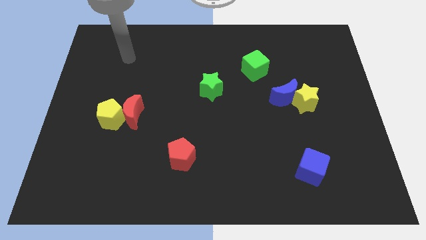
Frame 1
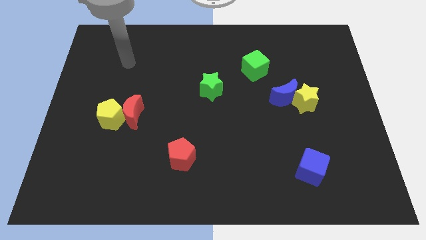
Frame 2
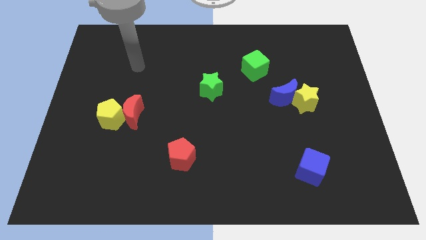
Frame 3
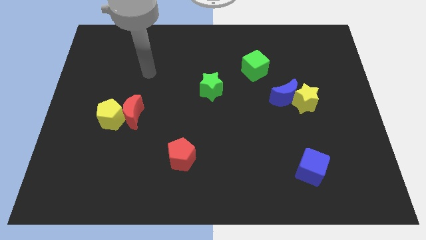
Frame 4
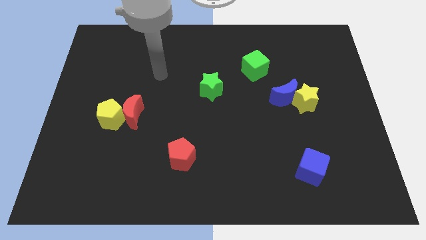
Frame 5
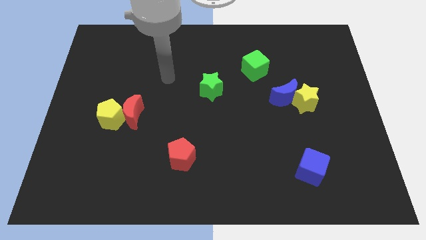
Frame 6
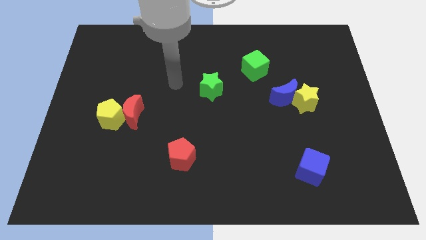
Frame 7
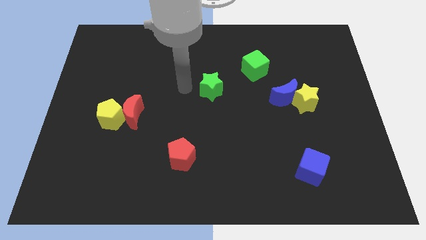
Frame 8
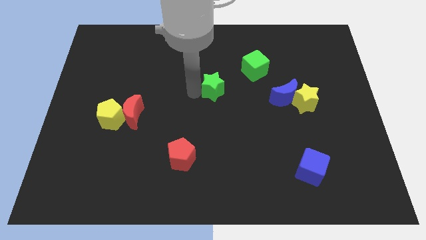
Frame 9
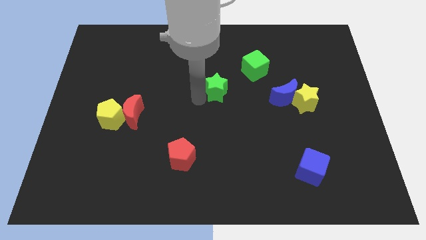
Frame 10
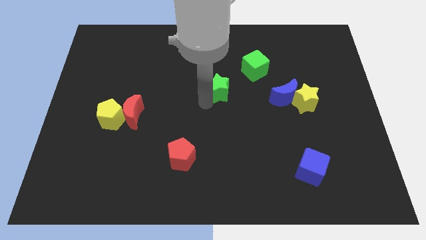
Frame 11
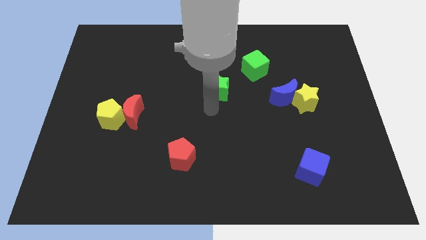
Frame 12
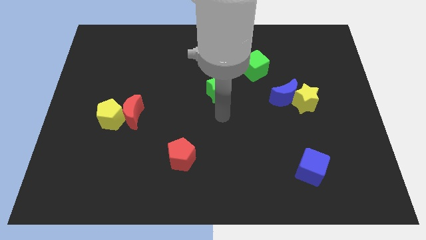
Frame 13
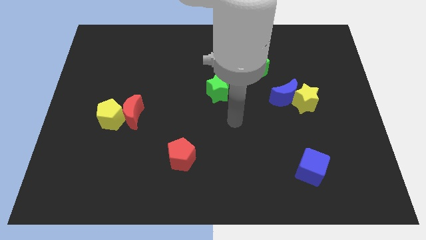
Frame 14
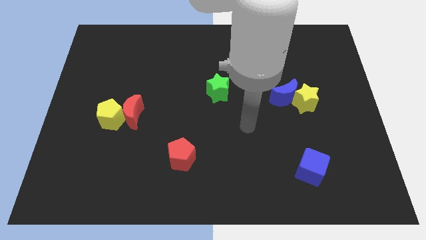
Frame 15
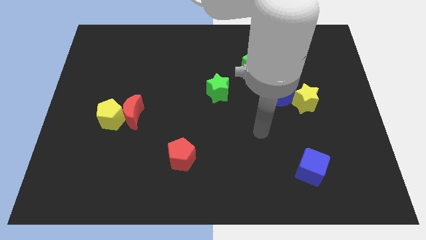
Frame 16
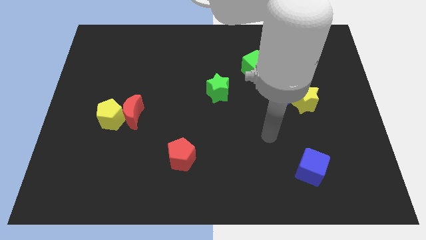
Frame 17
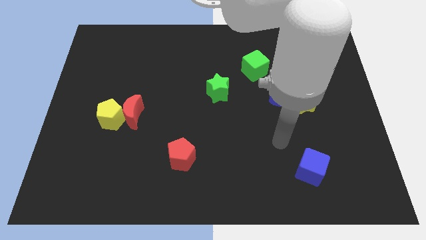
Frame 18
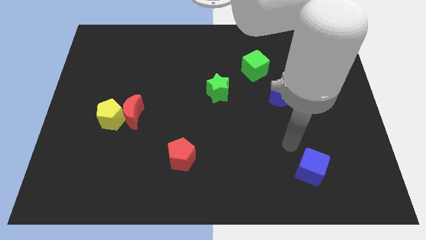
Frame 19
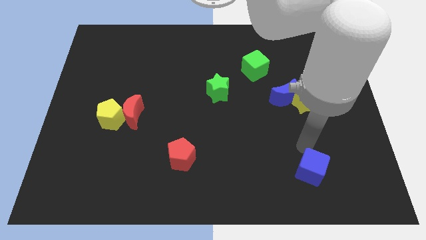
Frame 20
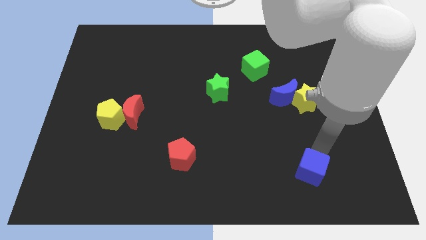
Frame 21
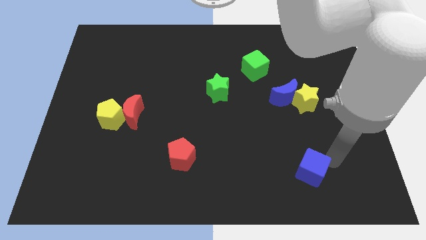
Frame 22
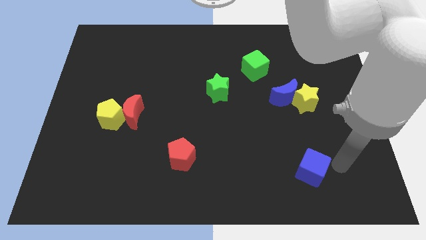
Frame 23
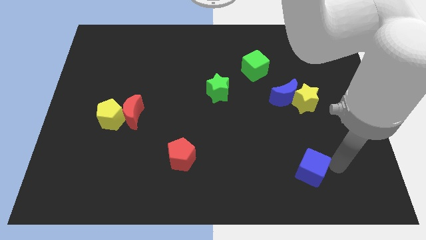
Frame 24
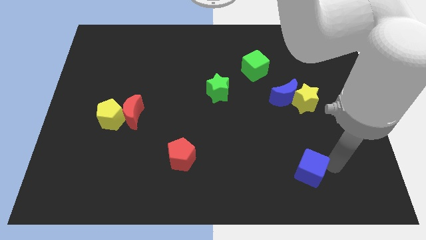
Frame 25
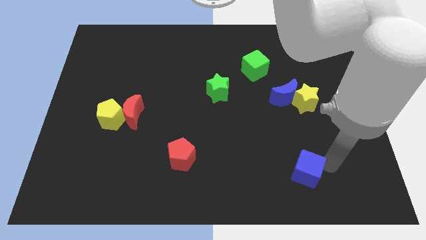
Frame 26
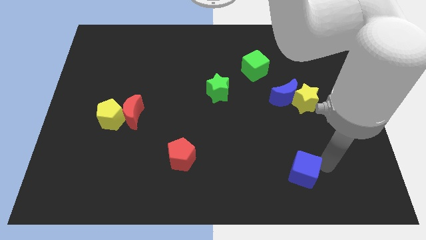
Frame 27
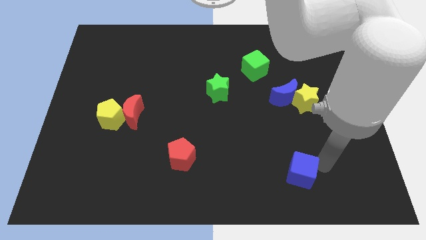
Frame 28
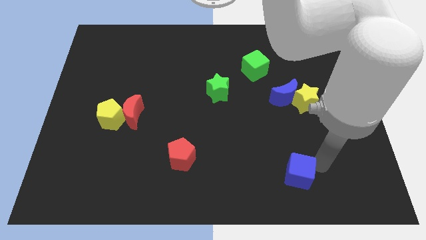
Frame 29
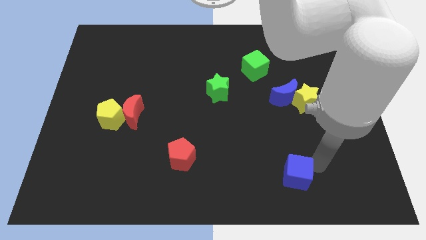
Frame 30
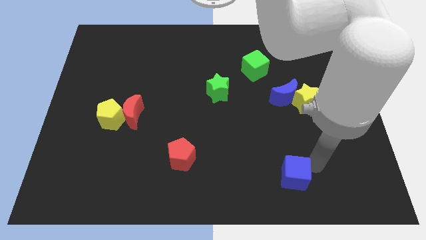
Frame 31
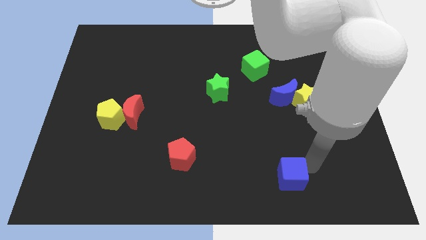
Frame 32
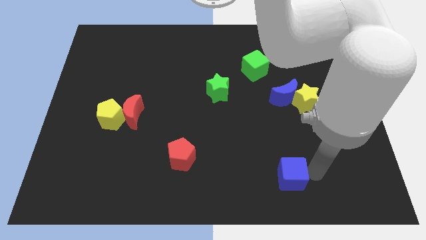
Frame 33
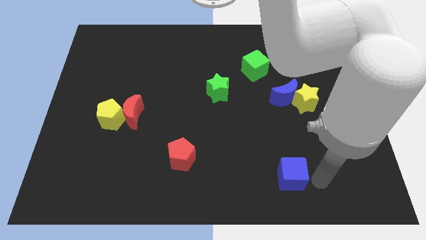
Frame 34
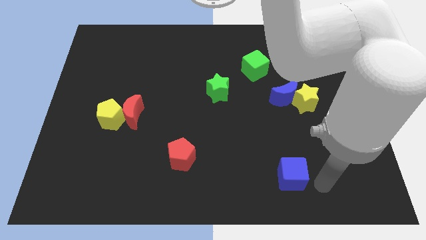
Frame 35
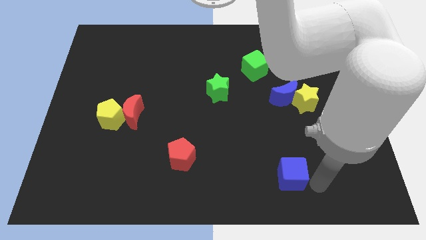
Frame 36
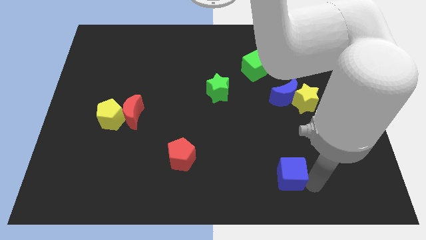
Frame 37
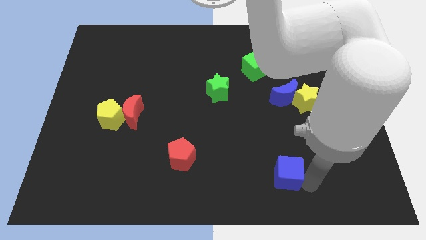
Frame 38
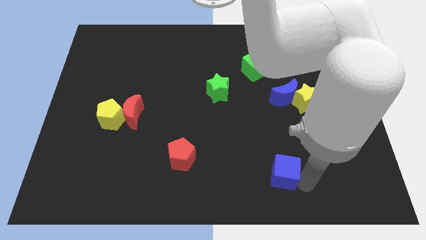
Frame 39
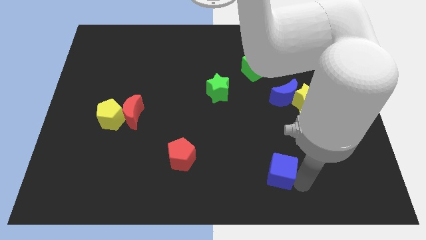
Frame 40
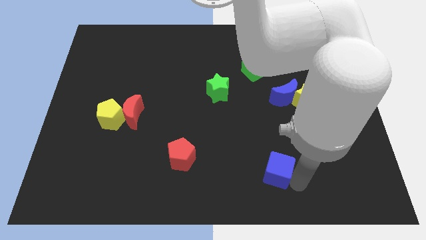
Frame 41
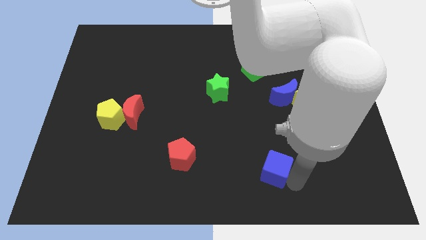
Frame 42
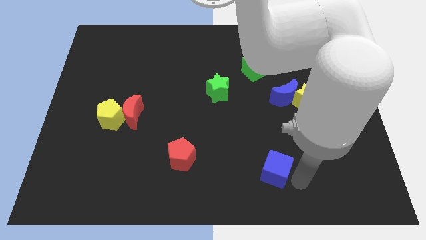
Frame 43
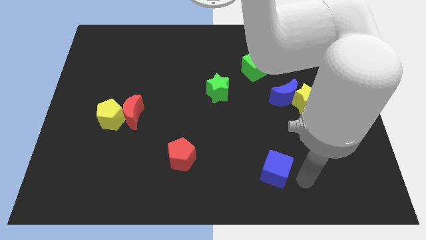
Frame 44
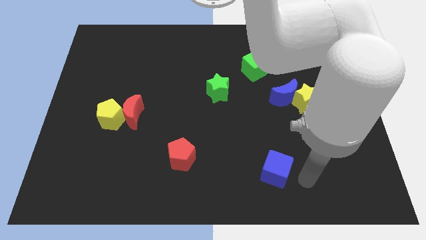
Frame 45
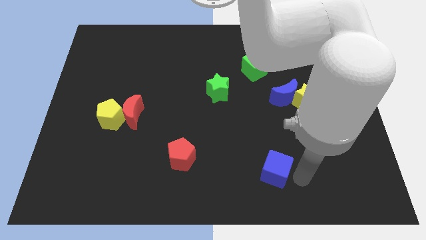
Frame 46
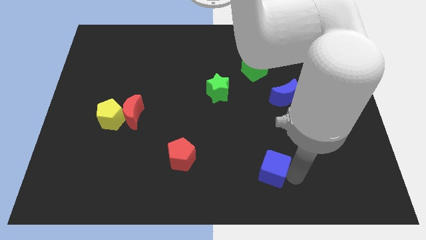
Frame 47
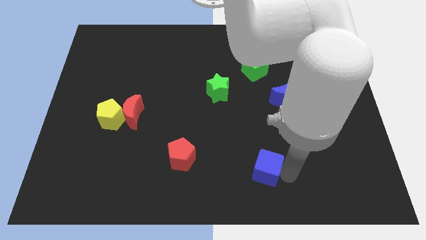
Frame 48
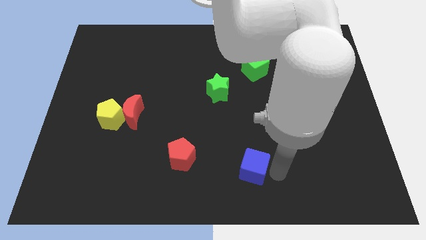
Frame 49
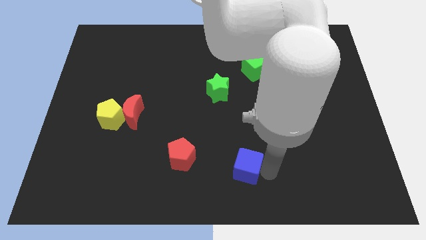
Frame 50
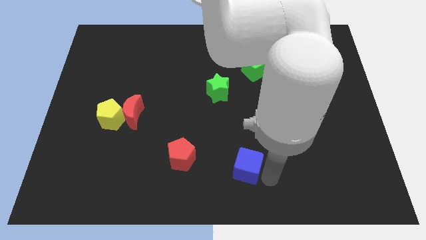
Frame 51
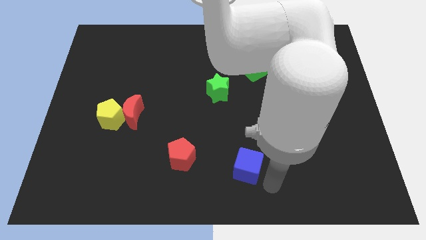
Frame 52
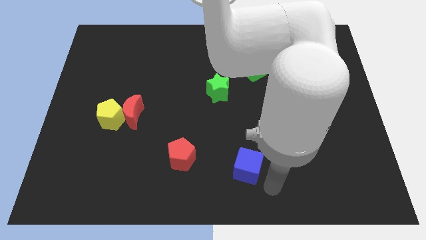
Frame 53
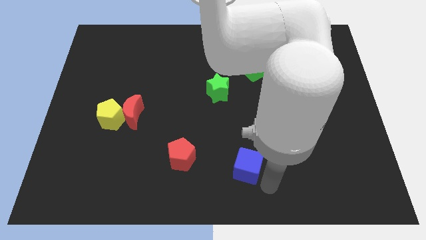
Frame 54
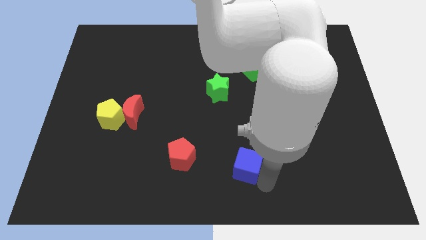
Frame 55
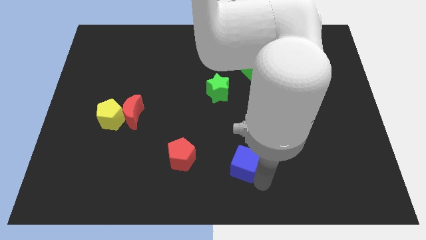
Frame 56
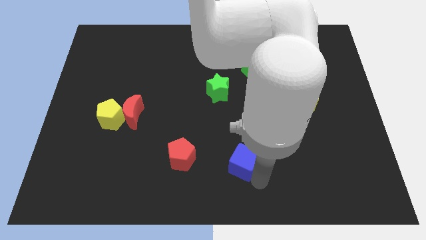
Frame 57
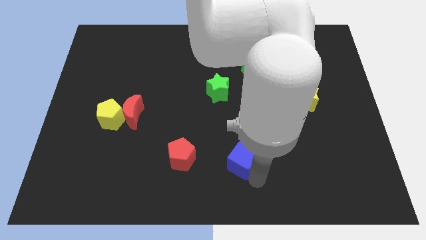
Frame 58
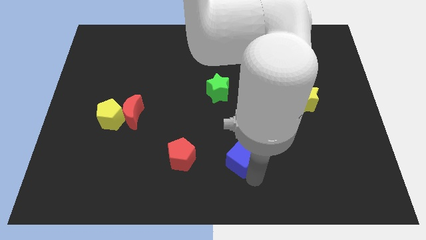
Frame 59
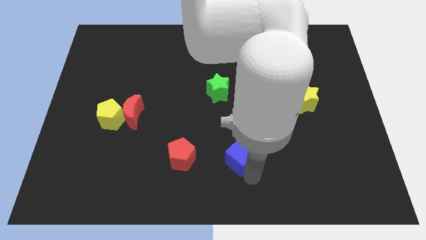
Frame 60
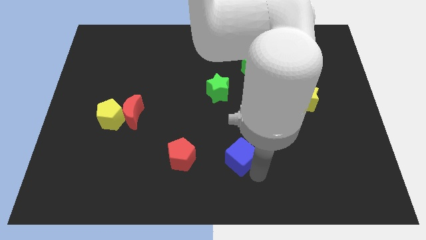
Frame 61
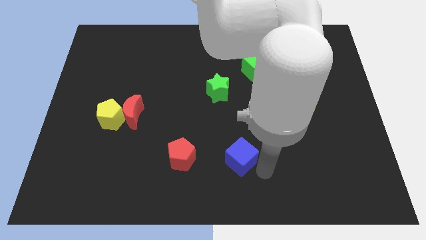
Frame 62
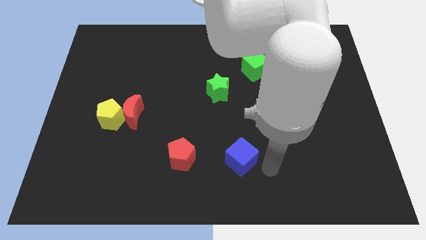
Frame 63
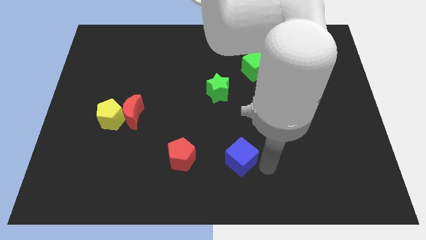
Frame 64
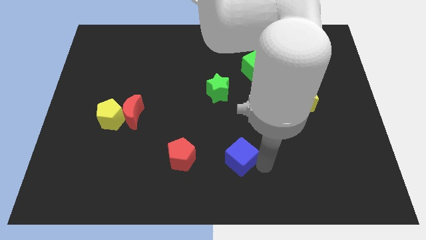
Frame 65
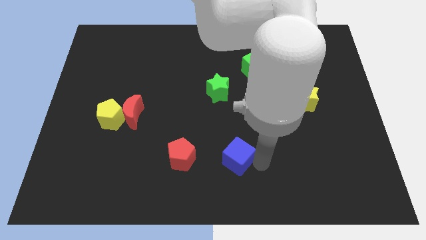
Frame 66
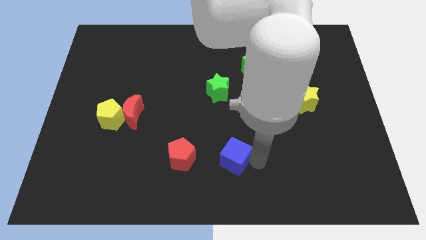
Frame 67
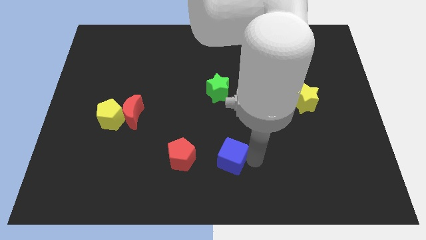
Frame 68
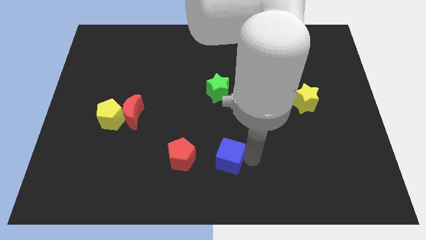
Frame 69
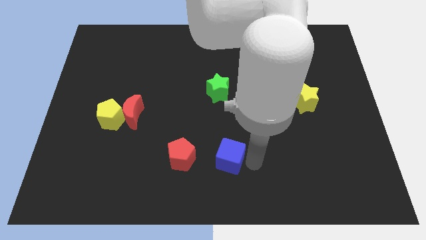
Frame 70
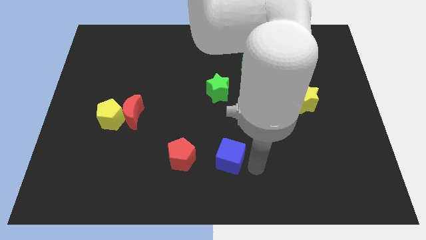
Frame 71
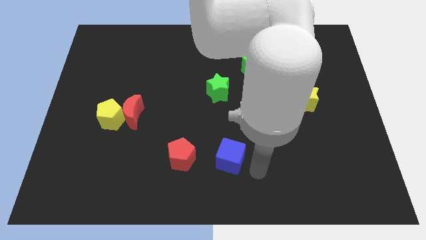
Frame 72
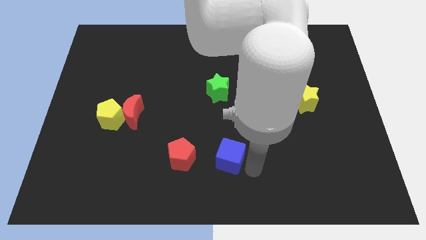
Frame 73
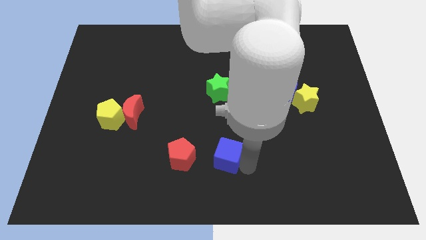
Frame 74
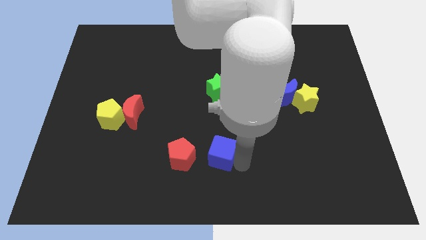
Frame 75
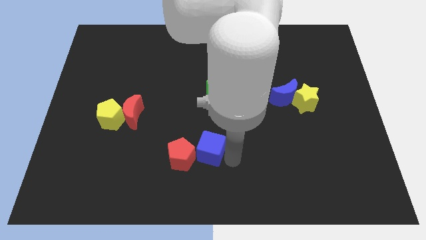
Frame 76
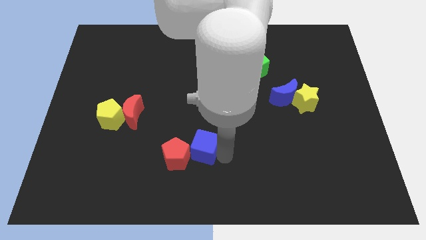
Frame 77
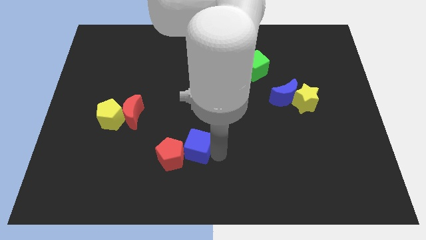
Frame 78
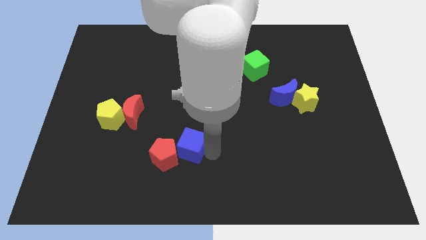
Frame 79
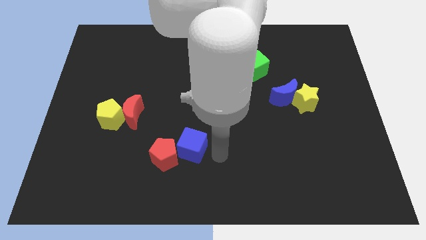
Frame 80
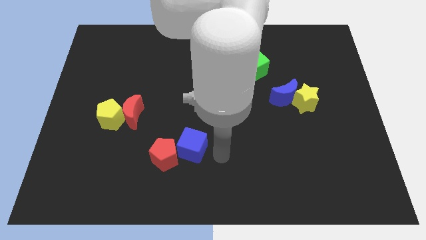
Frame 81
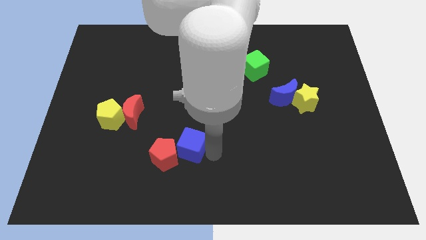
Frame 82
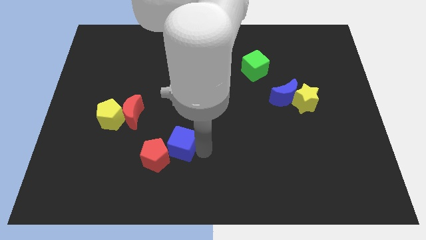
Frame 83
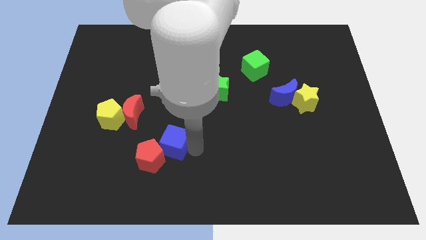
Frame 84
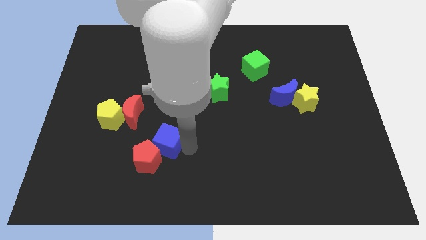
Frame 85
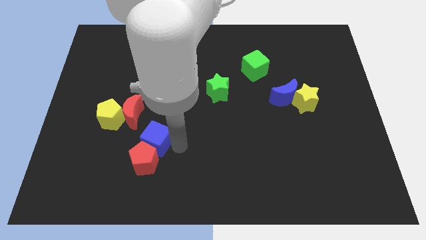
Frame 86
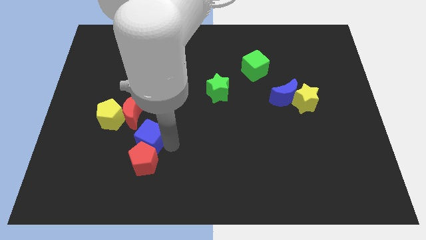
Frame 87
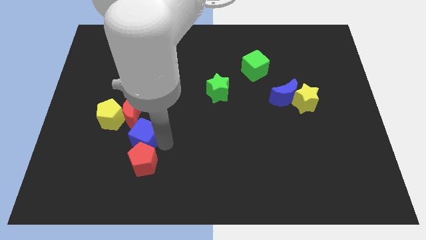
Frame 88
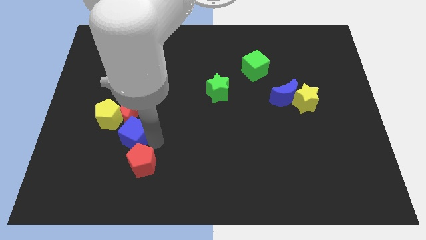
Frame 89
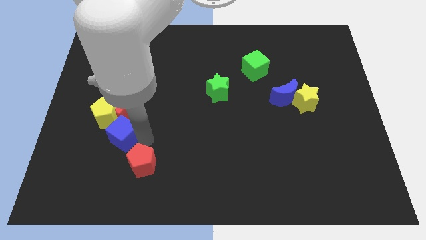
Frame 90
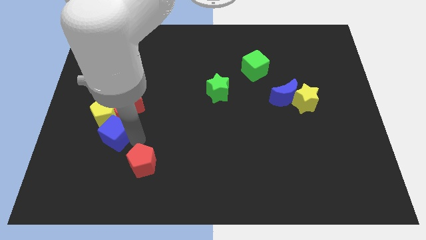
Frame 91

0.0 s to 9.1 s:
push the blue cube next to the yellow pentagon
